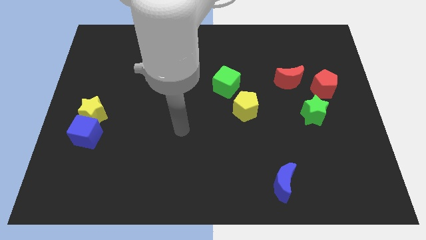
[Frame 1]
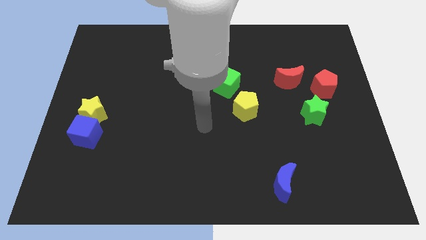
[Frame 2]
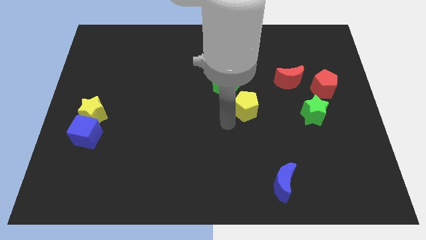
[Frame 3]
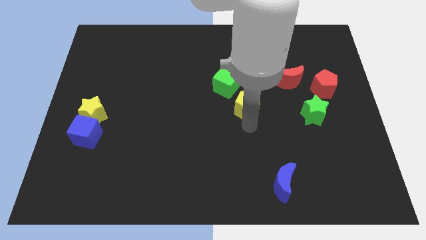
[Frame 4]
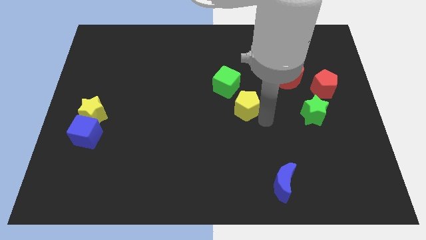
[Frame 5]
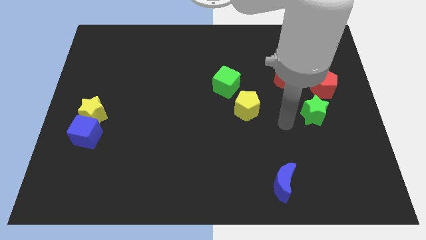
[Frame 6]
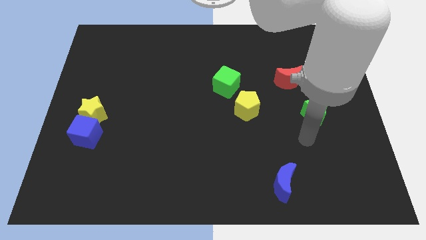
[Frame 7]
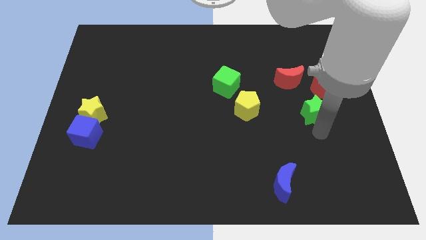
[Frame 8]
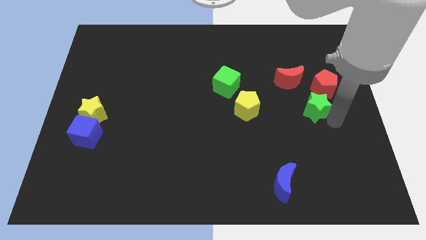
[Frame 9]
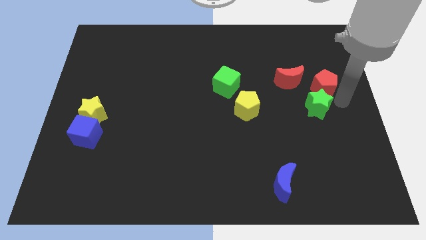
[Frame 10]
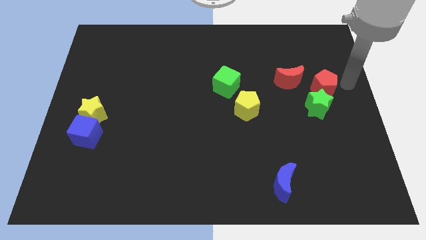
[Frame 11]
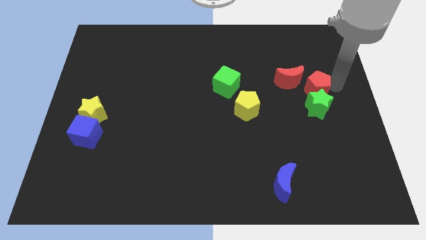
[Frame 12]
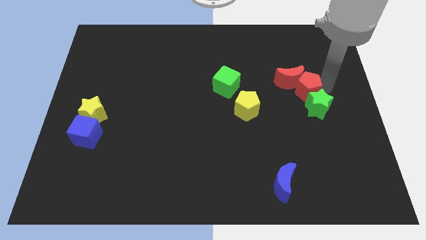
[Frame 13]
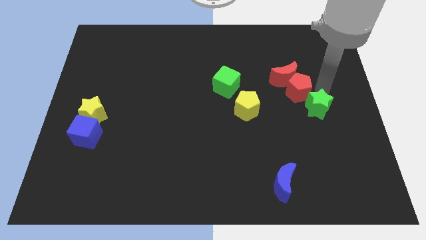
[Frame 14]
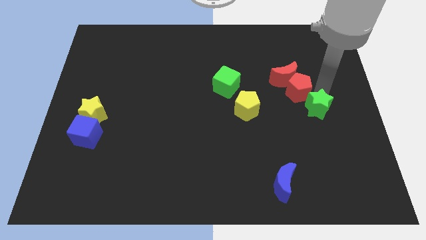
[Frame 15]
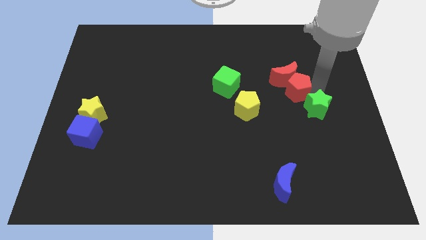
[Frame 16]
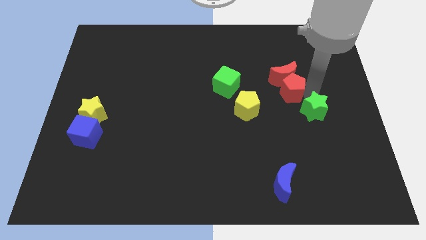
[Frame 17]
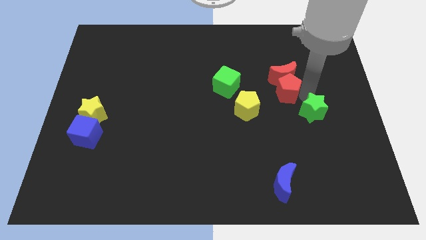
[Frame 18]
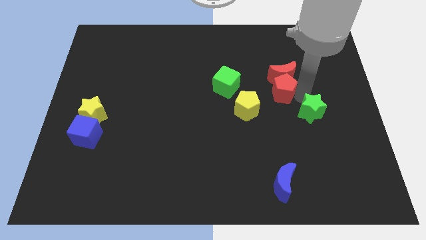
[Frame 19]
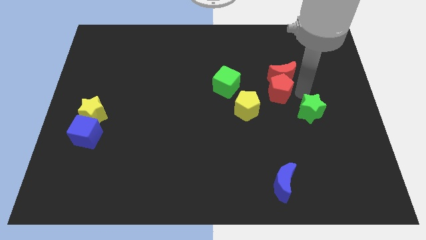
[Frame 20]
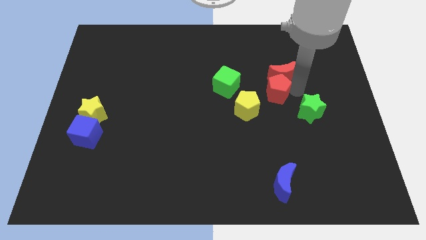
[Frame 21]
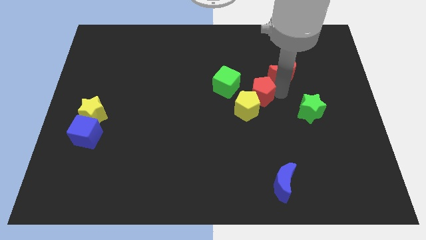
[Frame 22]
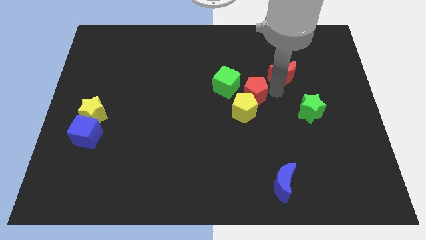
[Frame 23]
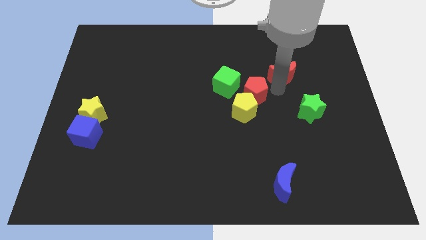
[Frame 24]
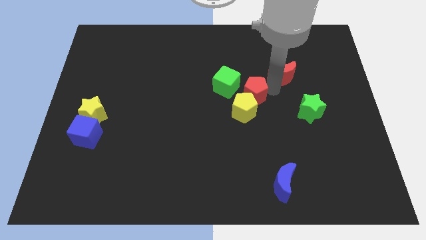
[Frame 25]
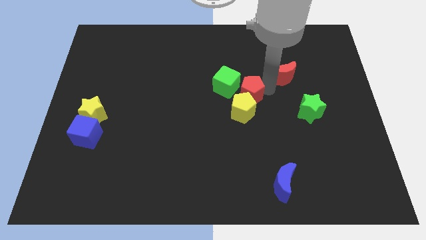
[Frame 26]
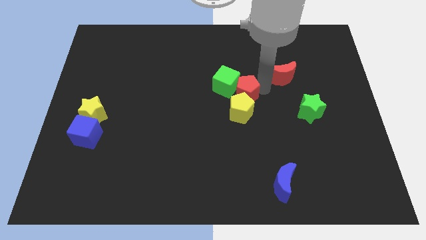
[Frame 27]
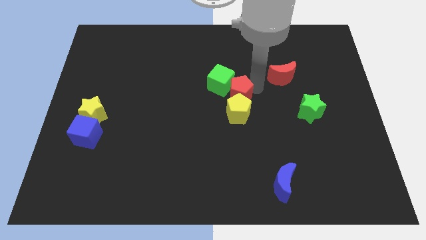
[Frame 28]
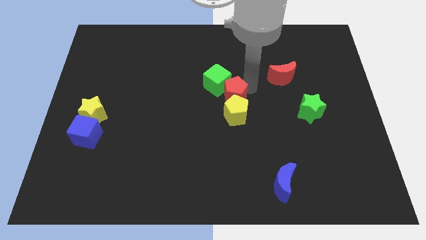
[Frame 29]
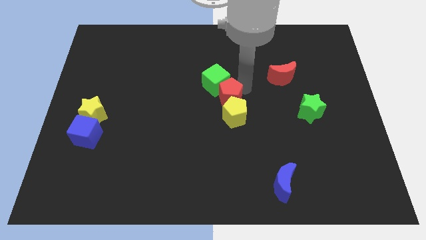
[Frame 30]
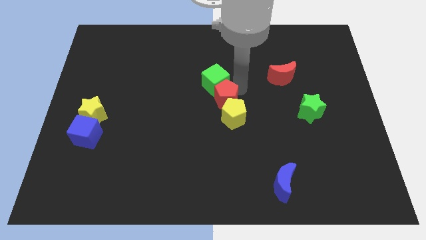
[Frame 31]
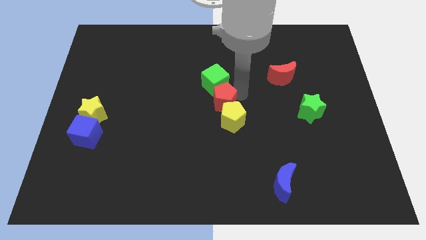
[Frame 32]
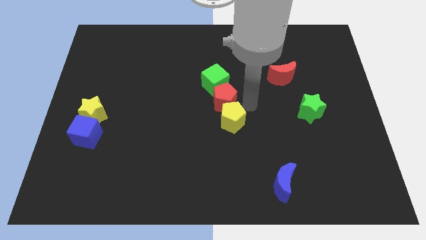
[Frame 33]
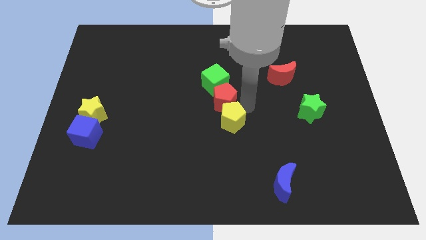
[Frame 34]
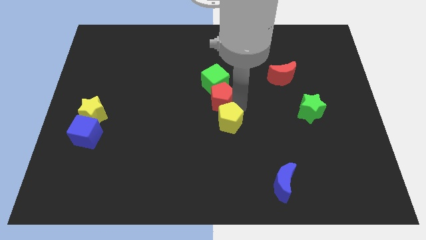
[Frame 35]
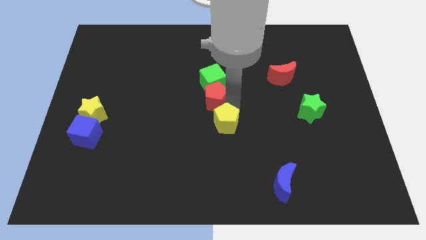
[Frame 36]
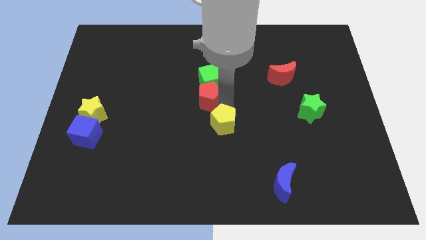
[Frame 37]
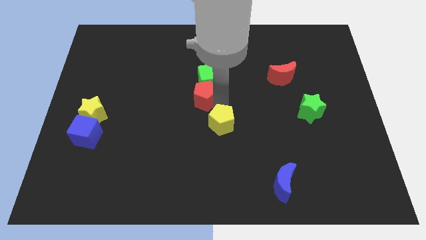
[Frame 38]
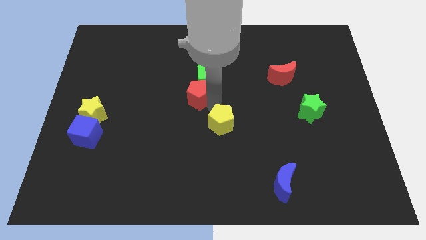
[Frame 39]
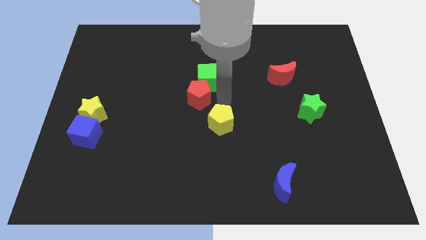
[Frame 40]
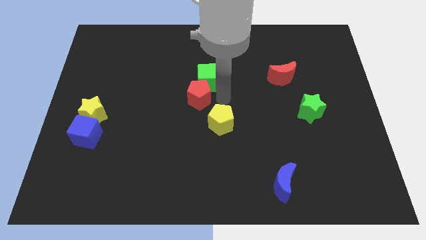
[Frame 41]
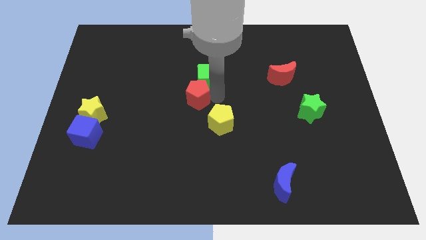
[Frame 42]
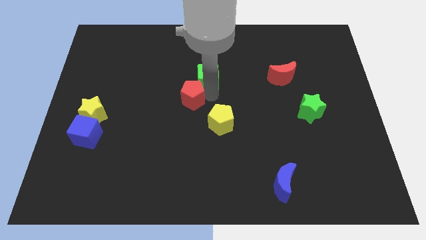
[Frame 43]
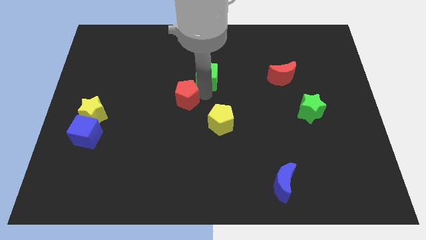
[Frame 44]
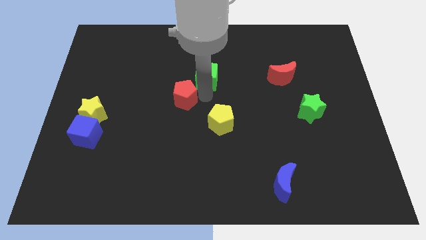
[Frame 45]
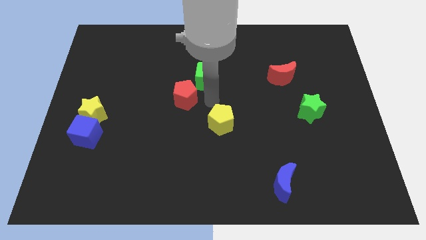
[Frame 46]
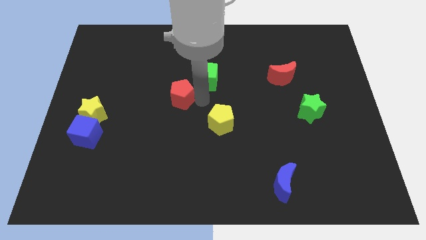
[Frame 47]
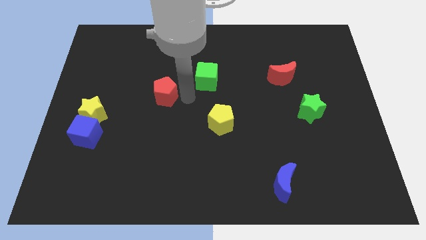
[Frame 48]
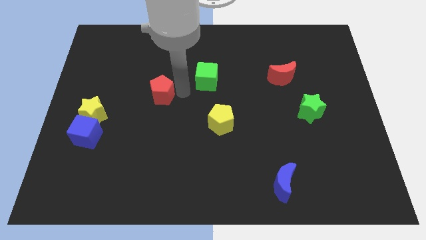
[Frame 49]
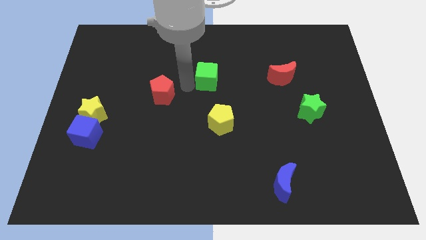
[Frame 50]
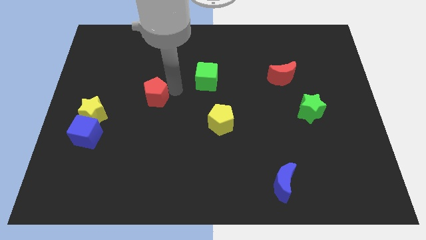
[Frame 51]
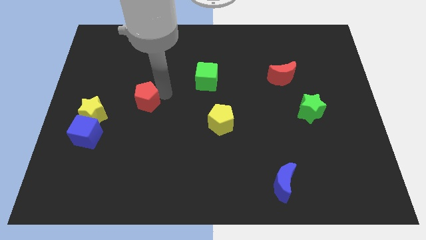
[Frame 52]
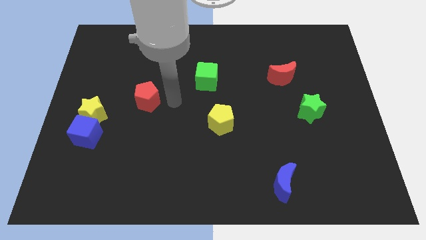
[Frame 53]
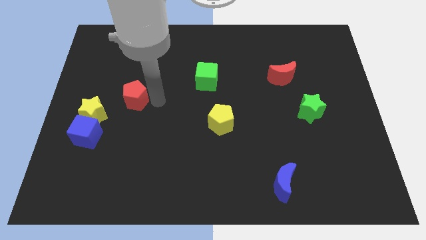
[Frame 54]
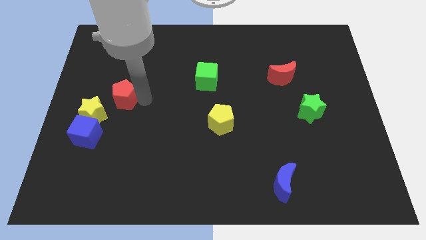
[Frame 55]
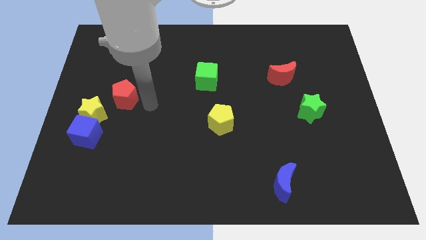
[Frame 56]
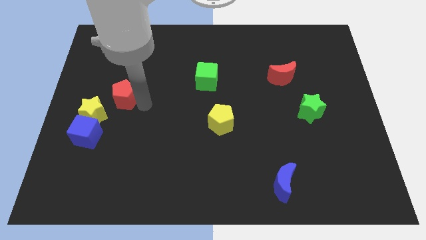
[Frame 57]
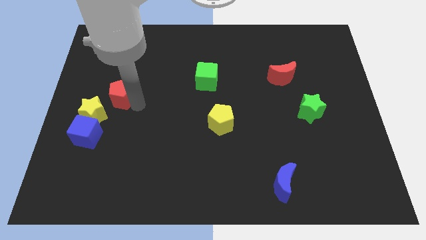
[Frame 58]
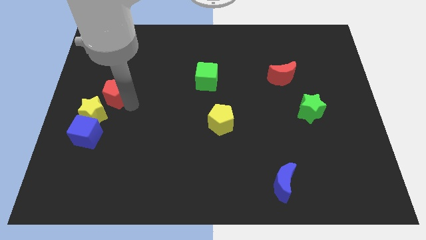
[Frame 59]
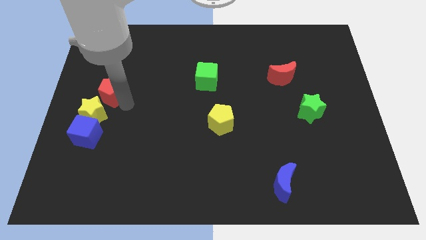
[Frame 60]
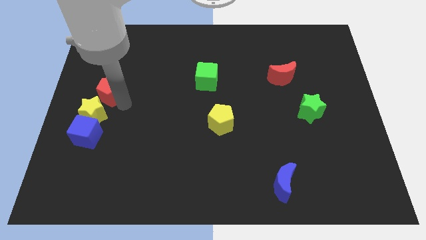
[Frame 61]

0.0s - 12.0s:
put the red pentagon to the left side of the board

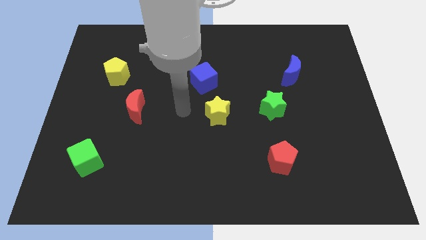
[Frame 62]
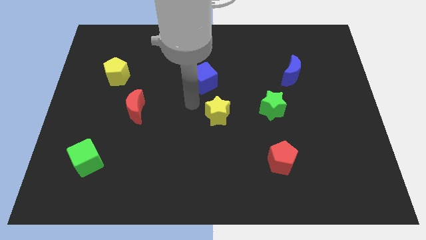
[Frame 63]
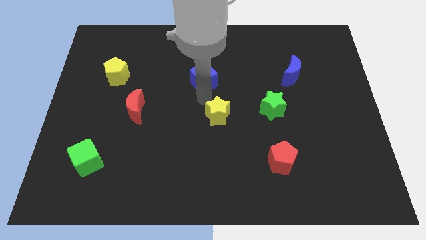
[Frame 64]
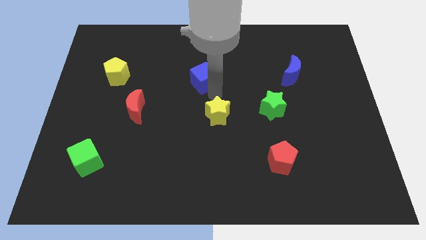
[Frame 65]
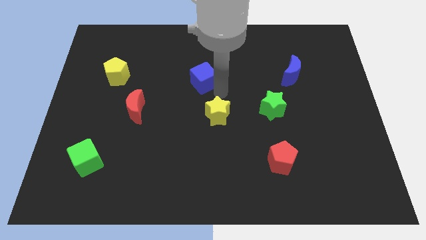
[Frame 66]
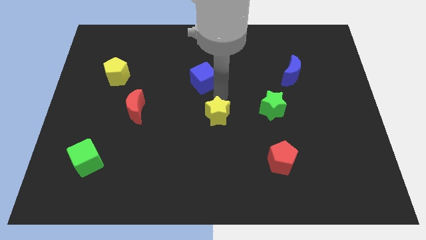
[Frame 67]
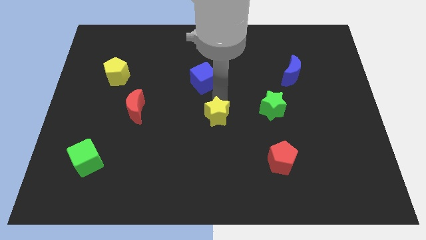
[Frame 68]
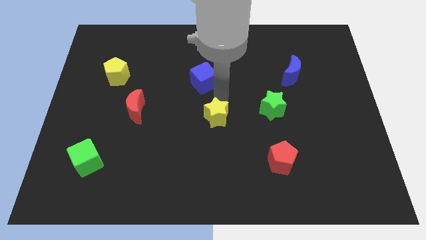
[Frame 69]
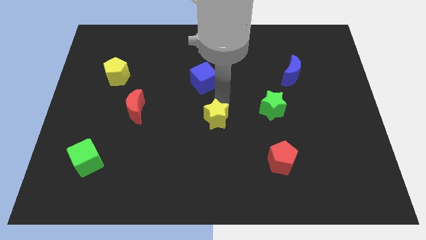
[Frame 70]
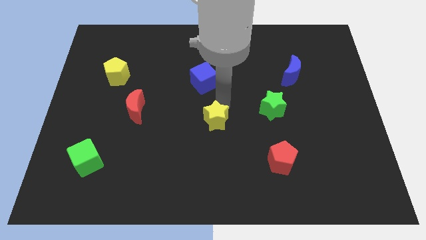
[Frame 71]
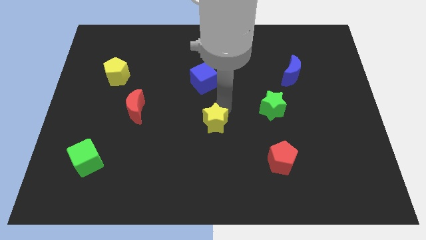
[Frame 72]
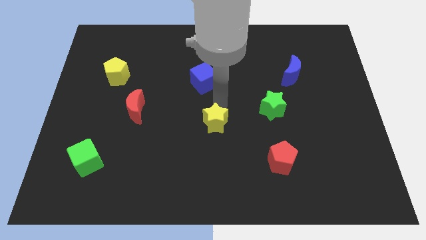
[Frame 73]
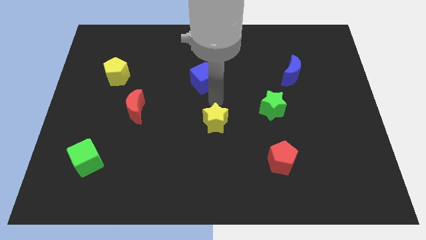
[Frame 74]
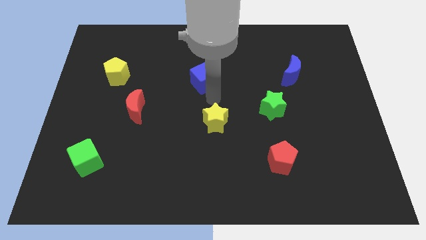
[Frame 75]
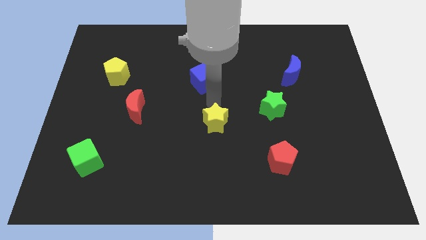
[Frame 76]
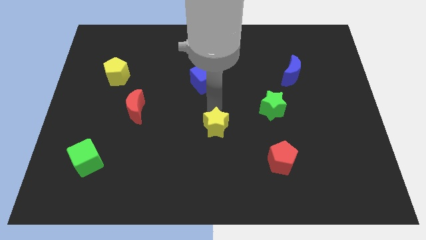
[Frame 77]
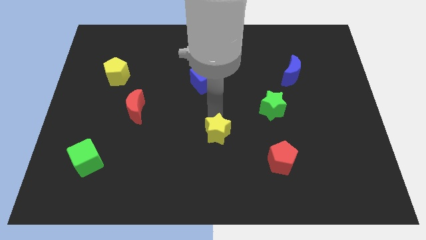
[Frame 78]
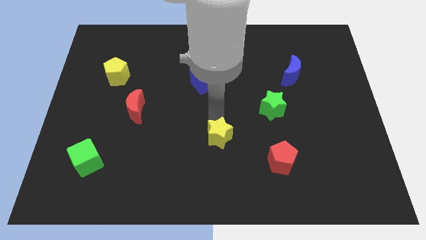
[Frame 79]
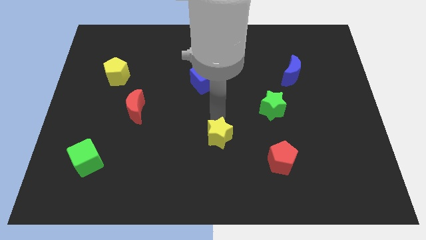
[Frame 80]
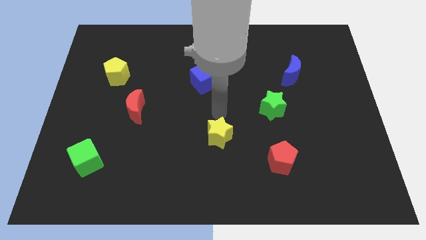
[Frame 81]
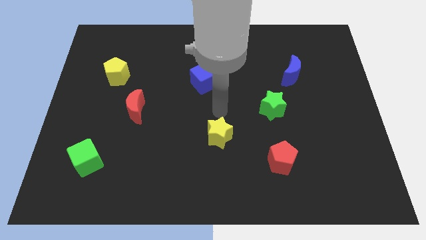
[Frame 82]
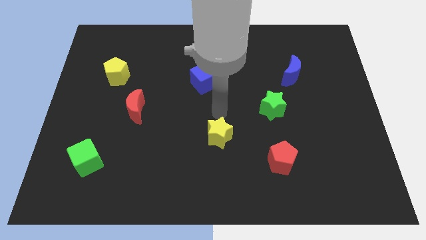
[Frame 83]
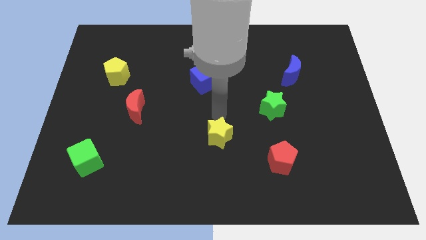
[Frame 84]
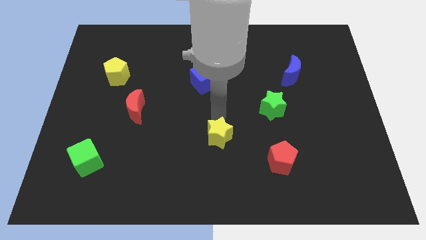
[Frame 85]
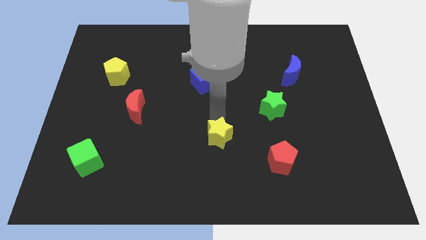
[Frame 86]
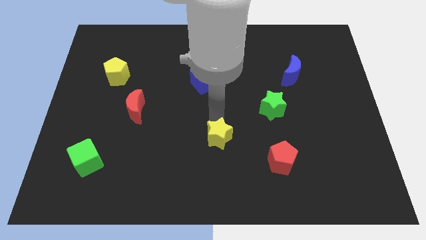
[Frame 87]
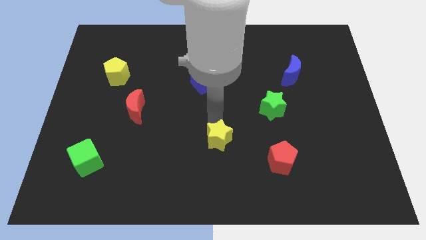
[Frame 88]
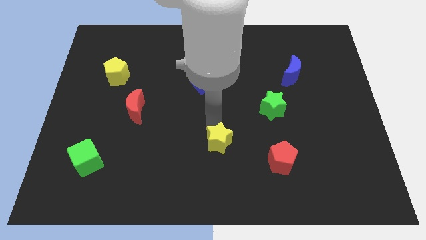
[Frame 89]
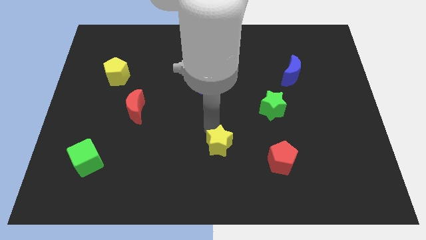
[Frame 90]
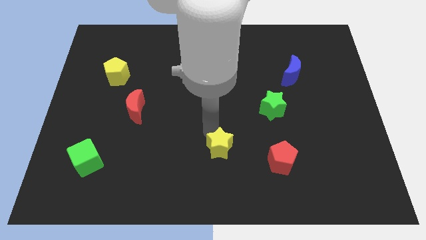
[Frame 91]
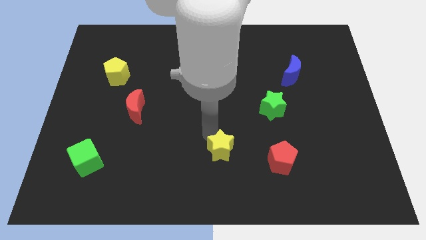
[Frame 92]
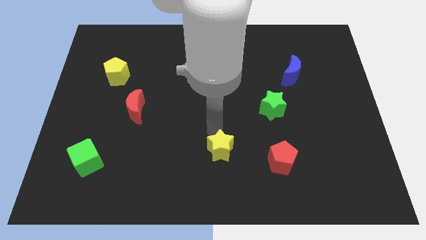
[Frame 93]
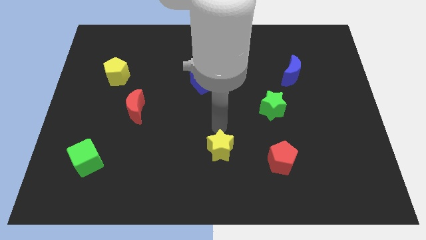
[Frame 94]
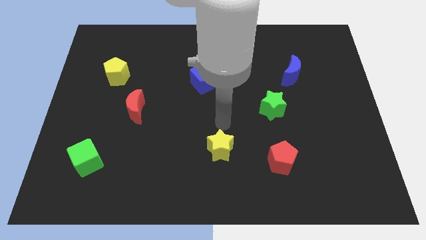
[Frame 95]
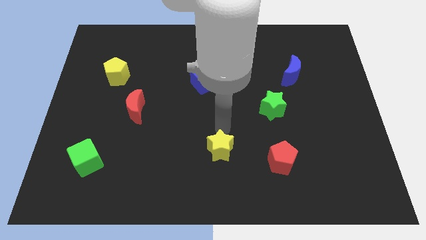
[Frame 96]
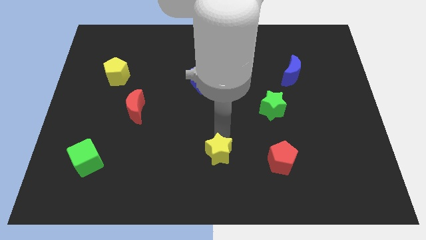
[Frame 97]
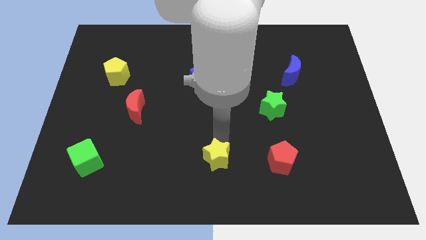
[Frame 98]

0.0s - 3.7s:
put the yellow star to the bottom
